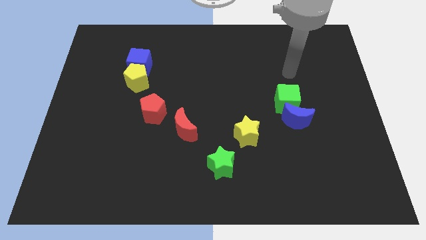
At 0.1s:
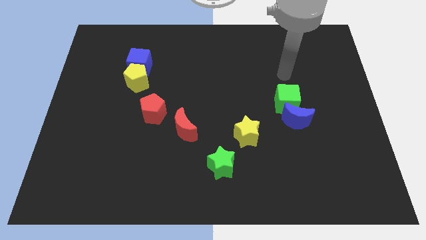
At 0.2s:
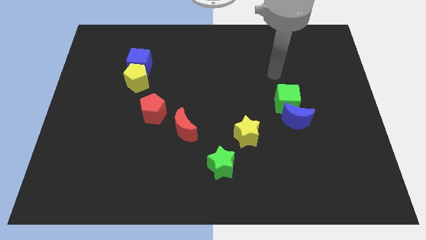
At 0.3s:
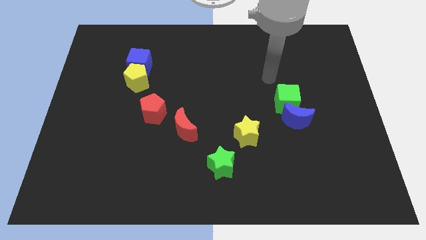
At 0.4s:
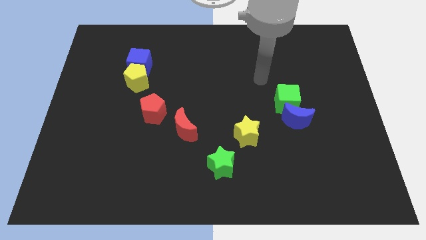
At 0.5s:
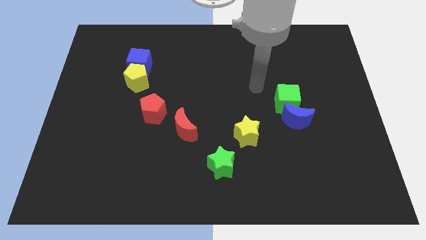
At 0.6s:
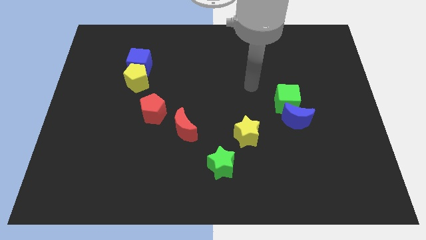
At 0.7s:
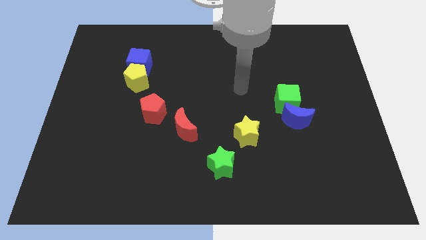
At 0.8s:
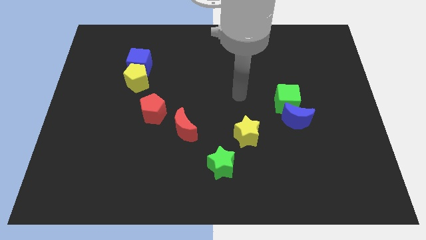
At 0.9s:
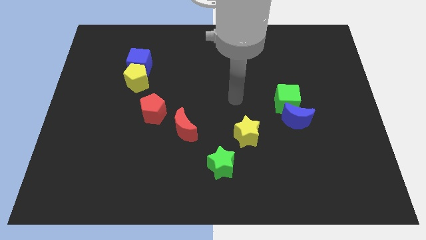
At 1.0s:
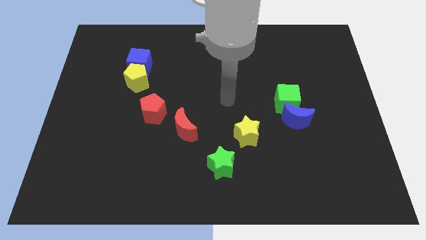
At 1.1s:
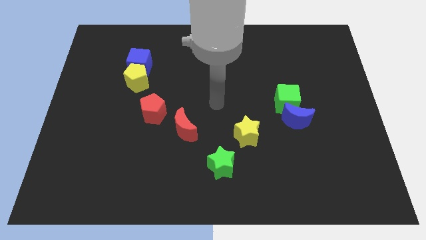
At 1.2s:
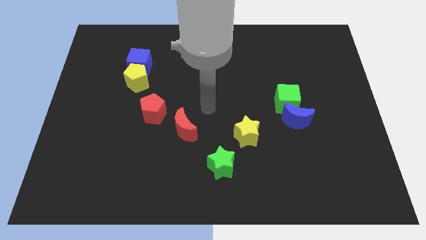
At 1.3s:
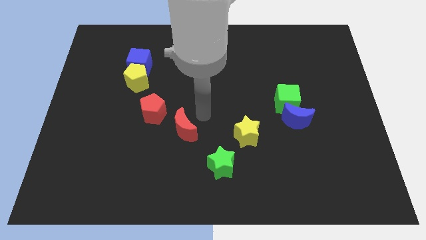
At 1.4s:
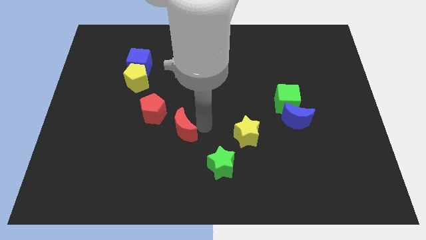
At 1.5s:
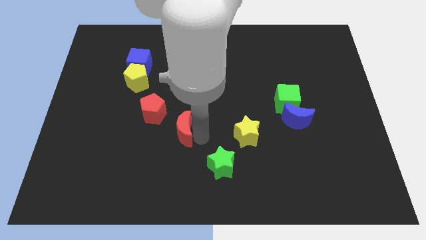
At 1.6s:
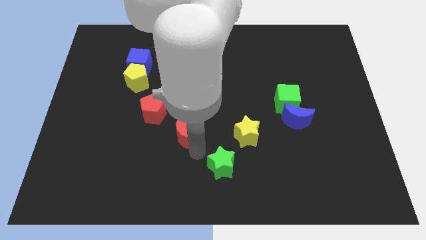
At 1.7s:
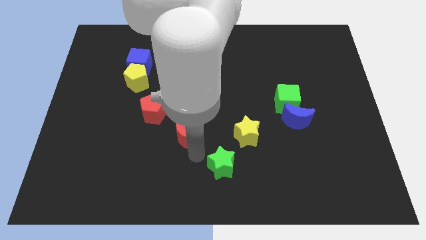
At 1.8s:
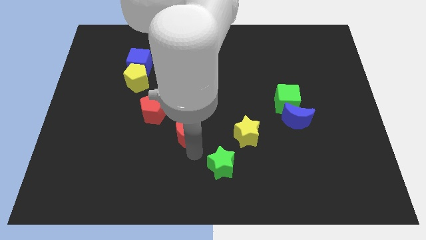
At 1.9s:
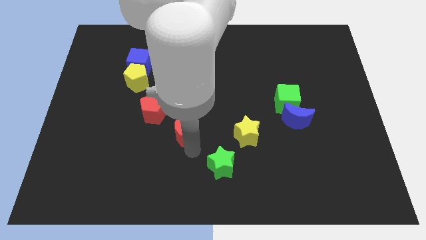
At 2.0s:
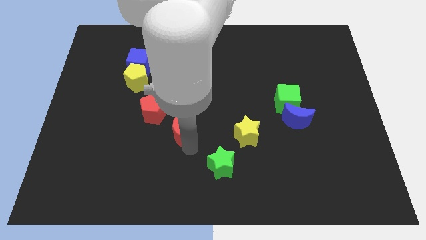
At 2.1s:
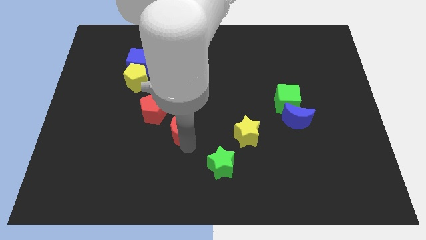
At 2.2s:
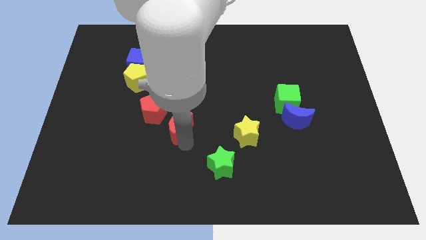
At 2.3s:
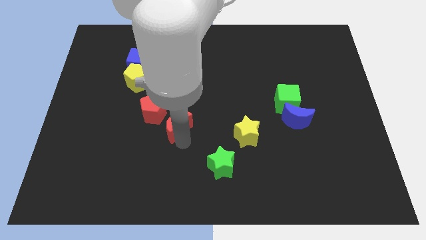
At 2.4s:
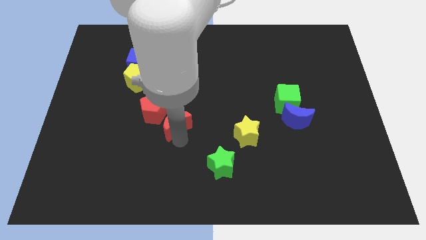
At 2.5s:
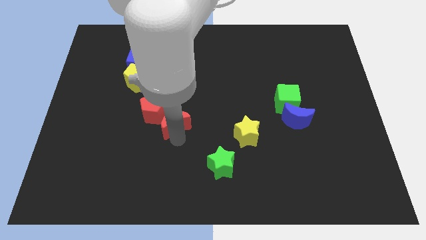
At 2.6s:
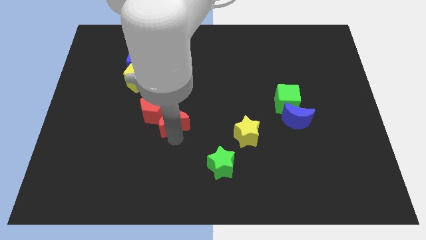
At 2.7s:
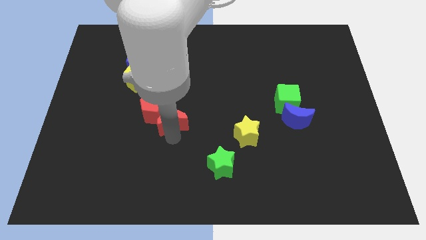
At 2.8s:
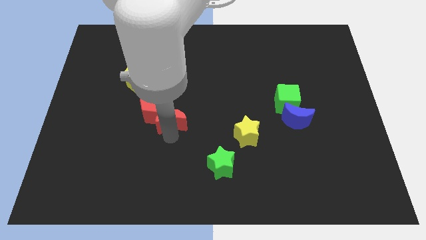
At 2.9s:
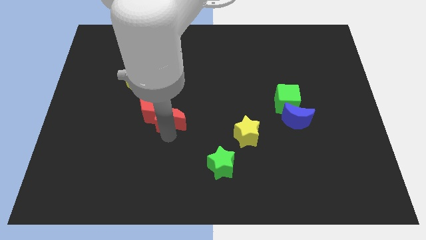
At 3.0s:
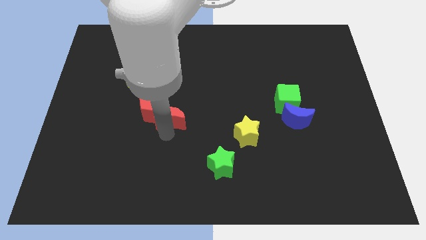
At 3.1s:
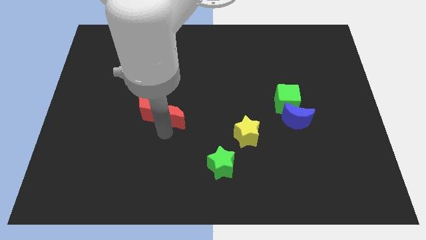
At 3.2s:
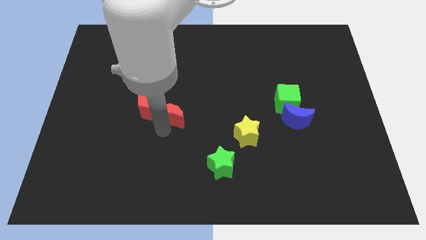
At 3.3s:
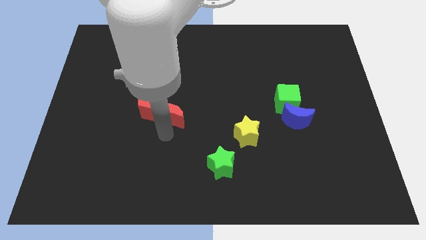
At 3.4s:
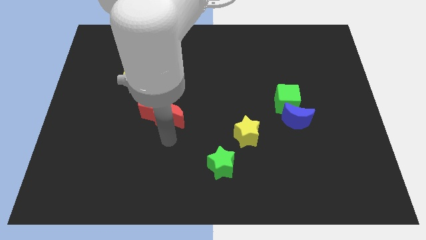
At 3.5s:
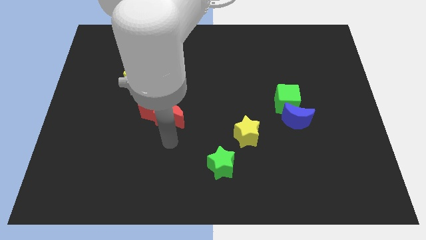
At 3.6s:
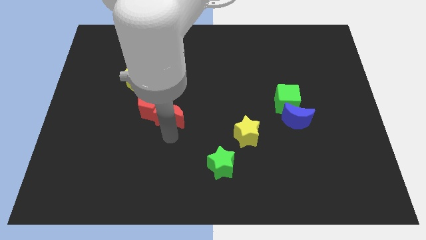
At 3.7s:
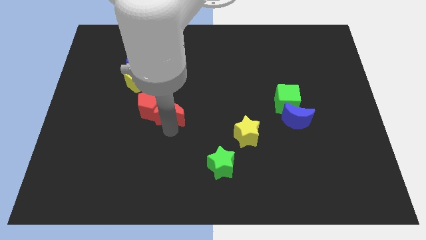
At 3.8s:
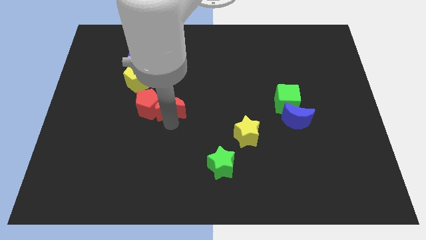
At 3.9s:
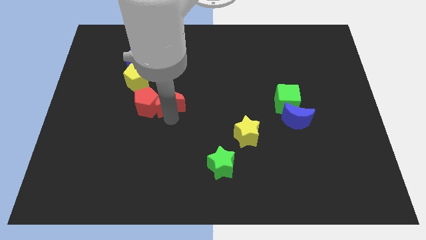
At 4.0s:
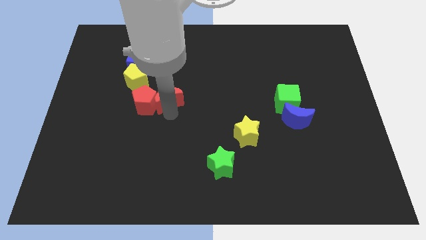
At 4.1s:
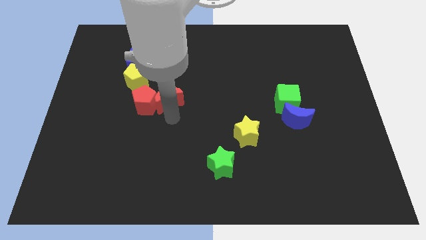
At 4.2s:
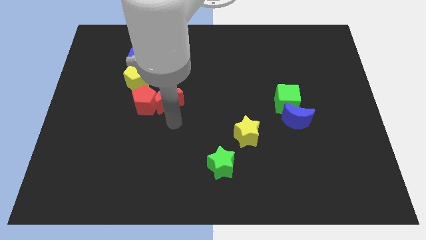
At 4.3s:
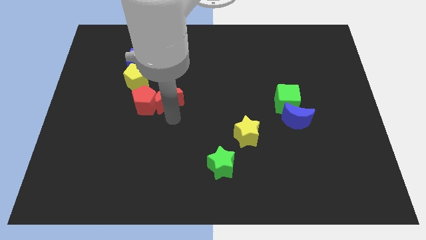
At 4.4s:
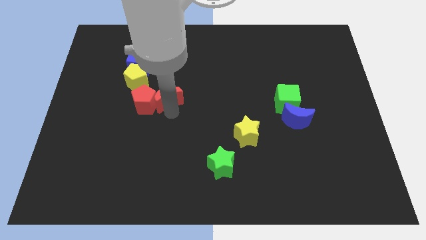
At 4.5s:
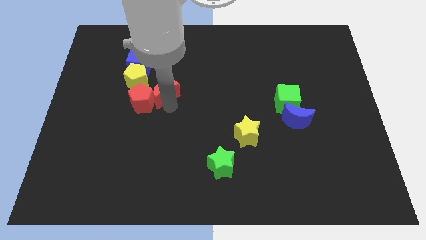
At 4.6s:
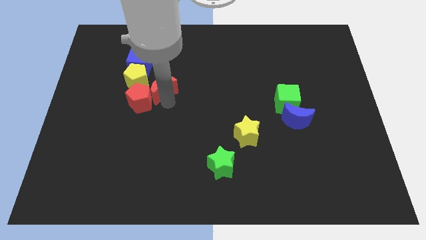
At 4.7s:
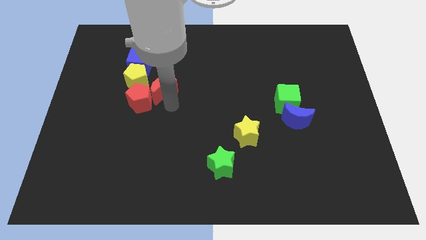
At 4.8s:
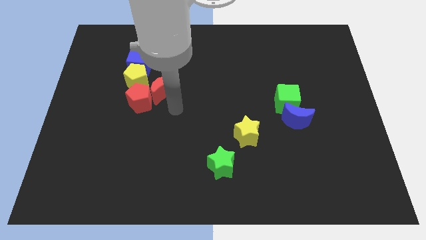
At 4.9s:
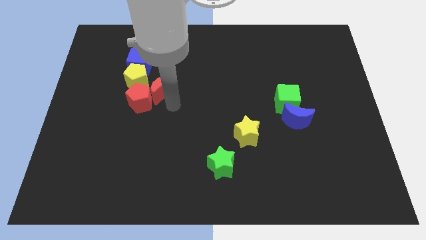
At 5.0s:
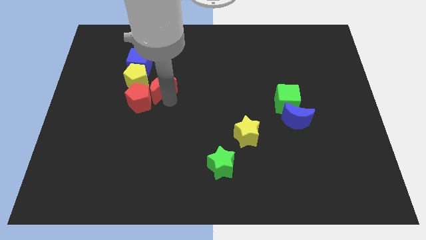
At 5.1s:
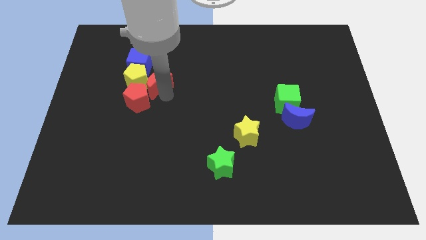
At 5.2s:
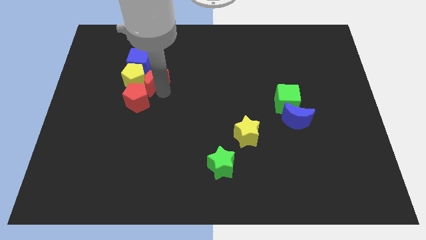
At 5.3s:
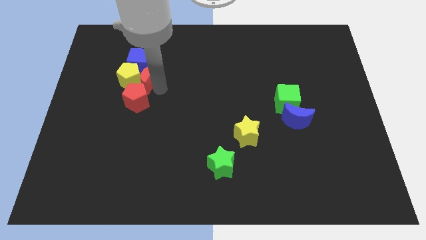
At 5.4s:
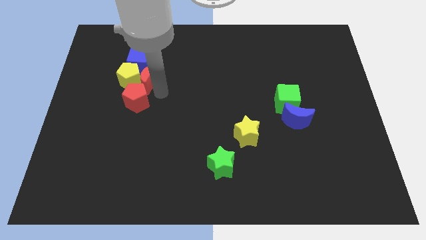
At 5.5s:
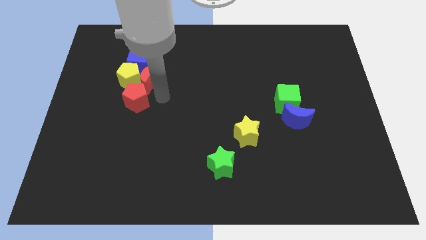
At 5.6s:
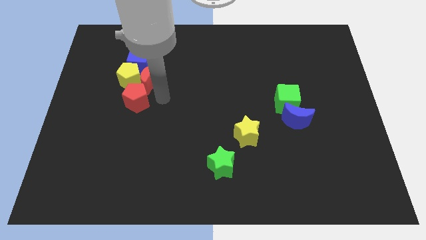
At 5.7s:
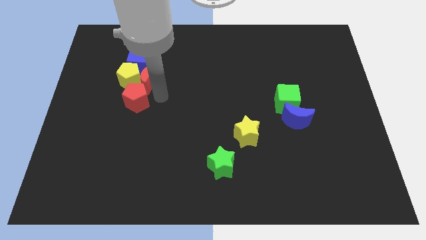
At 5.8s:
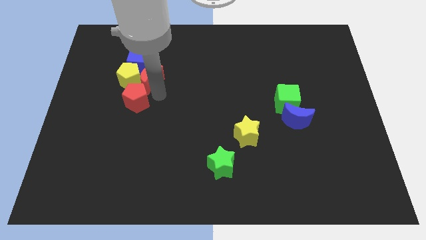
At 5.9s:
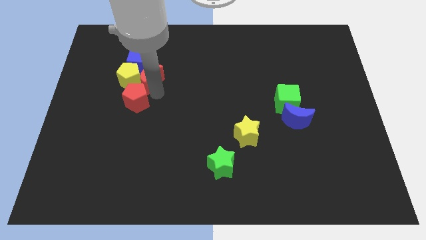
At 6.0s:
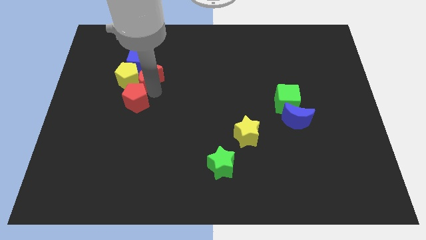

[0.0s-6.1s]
push the red moon to the blue cube

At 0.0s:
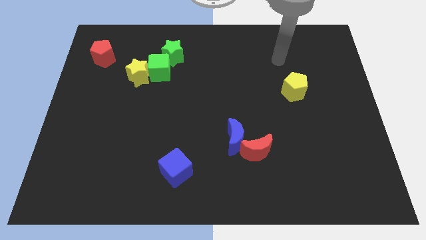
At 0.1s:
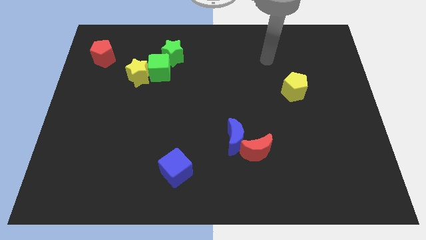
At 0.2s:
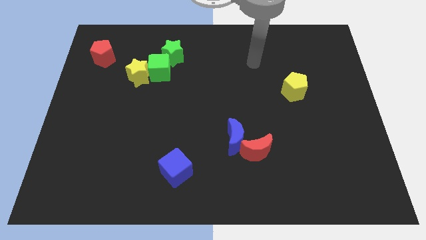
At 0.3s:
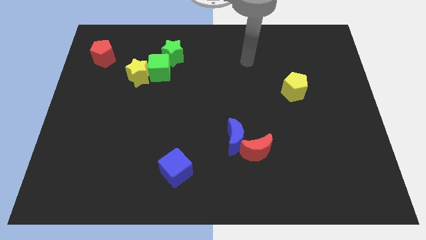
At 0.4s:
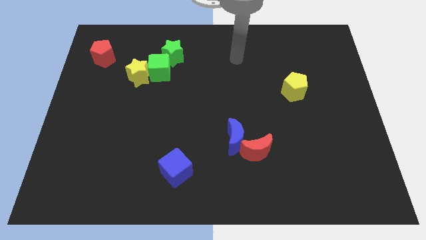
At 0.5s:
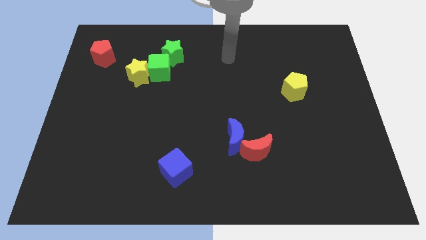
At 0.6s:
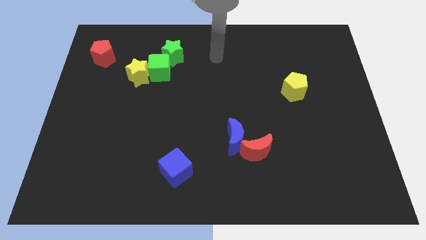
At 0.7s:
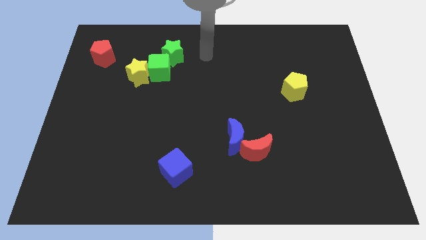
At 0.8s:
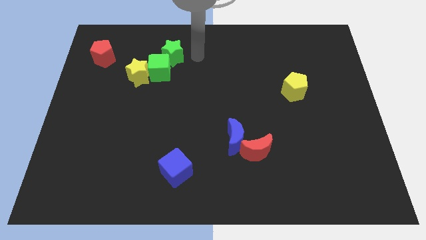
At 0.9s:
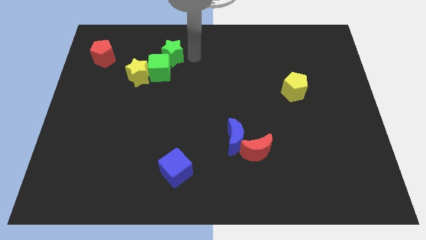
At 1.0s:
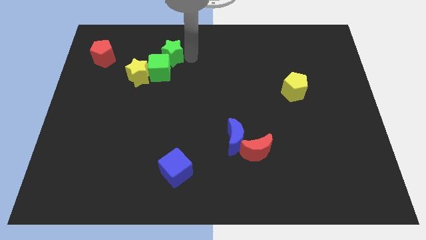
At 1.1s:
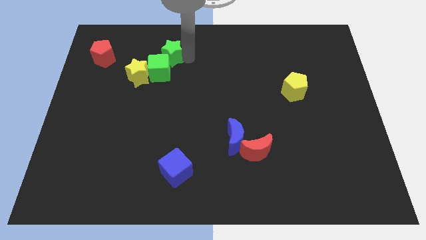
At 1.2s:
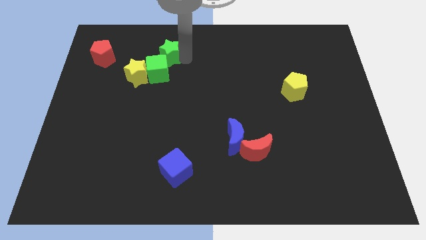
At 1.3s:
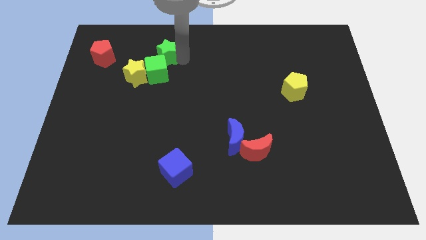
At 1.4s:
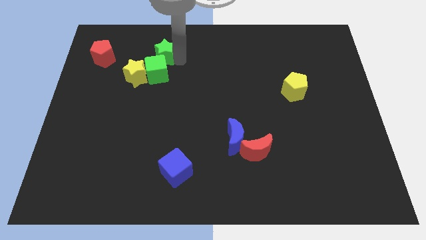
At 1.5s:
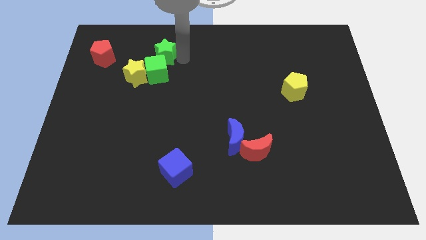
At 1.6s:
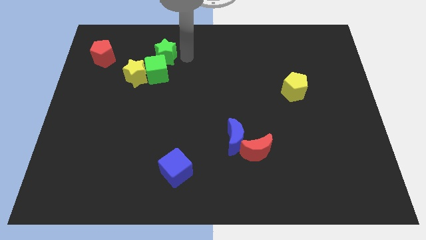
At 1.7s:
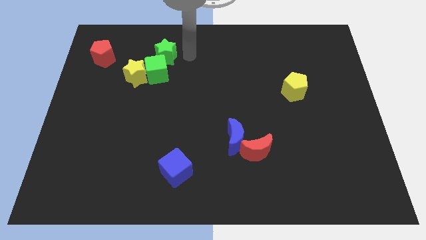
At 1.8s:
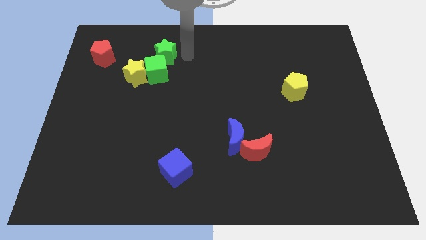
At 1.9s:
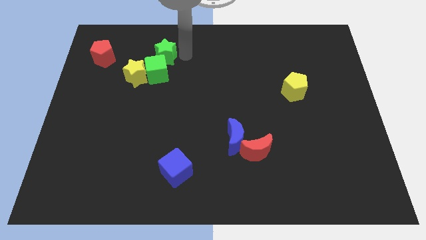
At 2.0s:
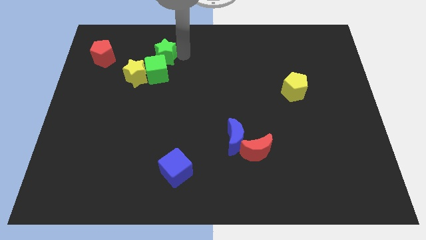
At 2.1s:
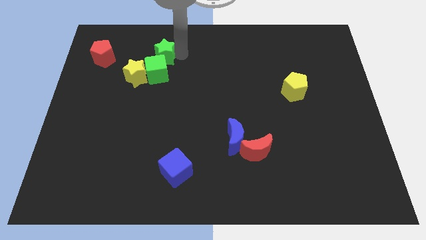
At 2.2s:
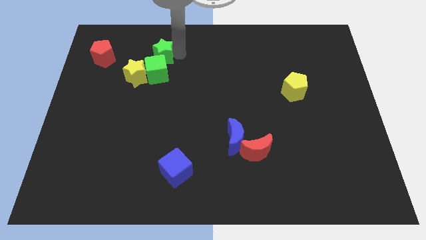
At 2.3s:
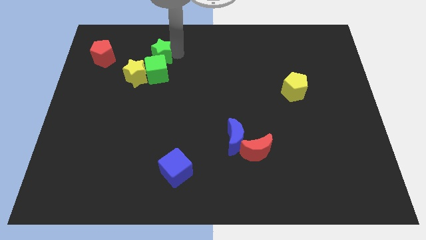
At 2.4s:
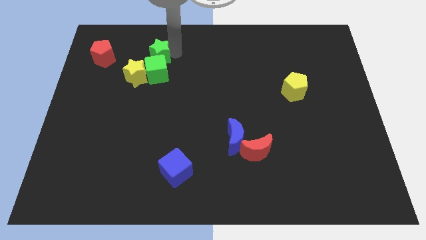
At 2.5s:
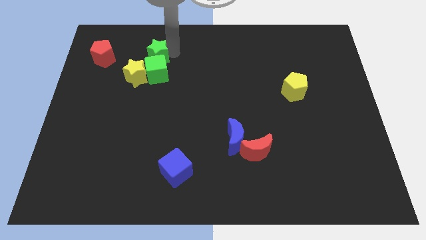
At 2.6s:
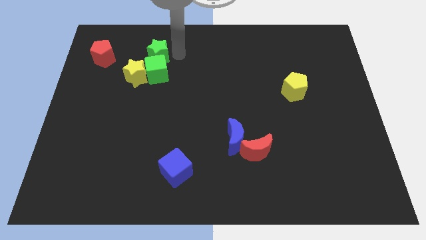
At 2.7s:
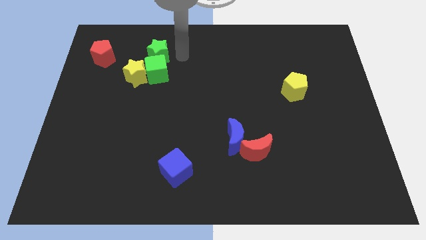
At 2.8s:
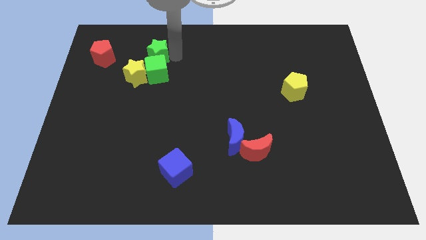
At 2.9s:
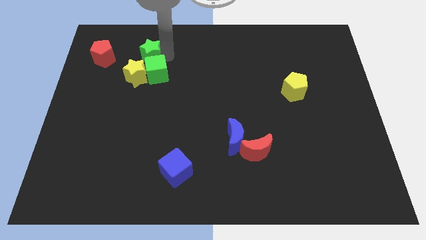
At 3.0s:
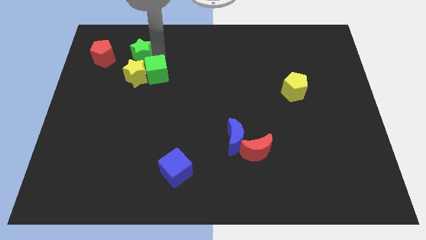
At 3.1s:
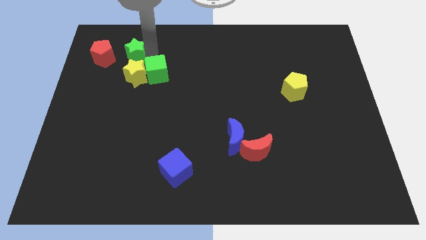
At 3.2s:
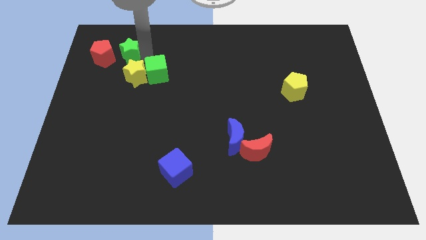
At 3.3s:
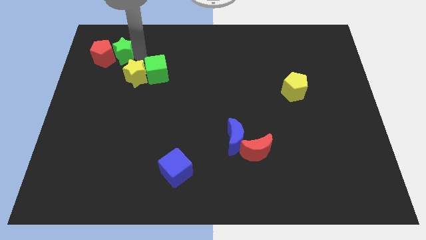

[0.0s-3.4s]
push the green star towards the red pentagon
